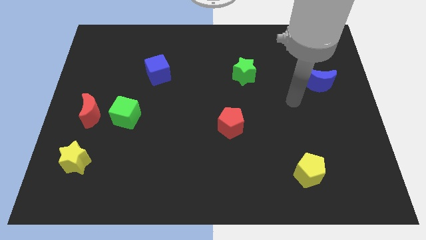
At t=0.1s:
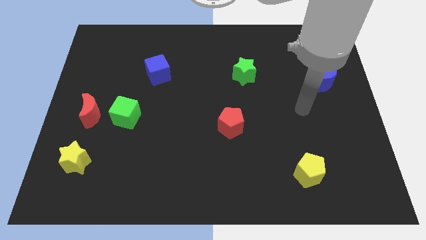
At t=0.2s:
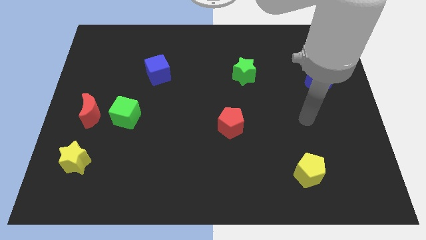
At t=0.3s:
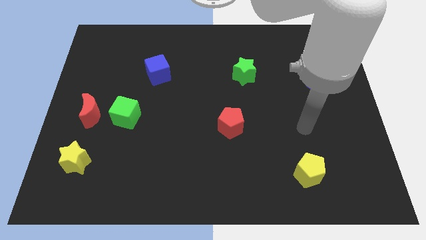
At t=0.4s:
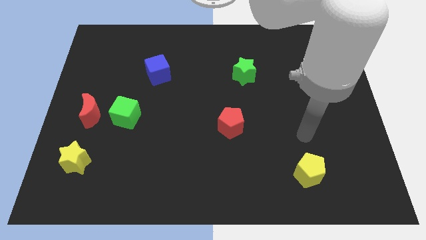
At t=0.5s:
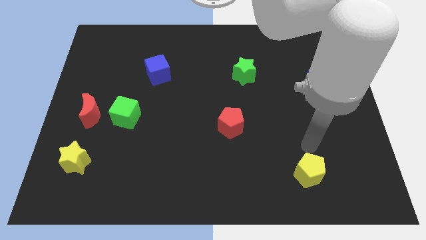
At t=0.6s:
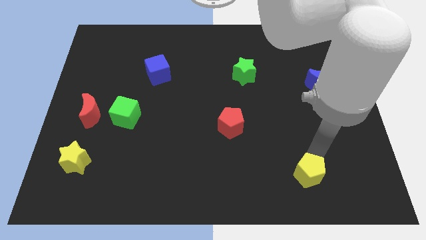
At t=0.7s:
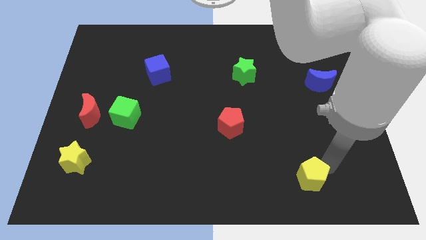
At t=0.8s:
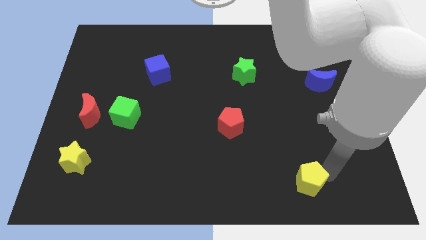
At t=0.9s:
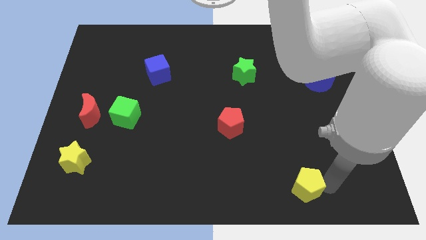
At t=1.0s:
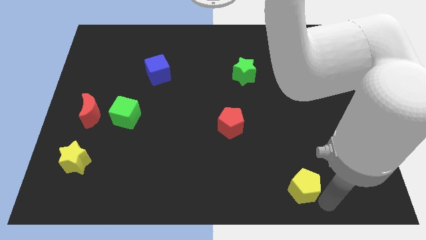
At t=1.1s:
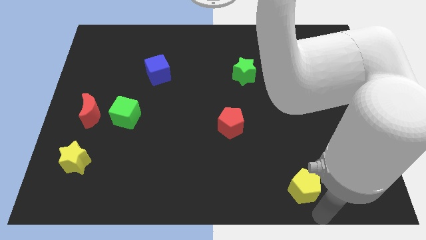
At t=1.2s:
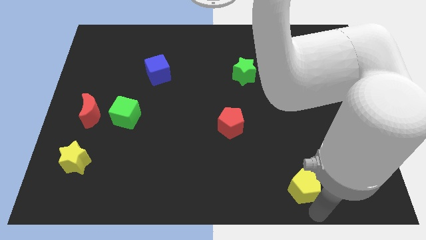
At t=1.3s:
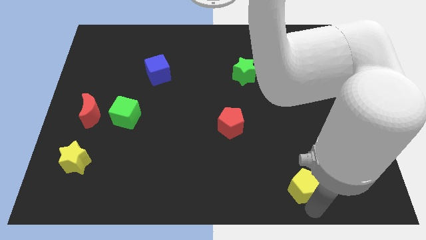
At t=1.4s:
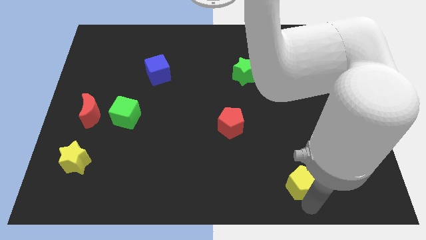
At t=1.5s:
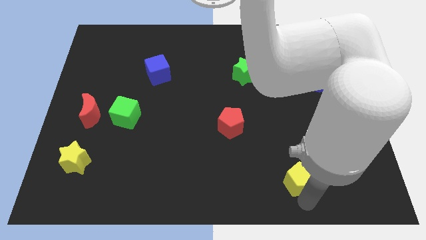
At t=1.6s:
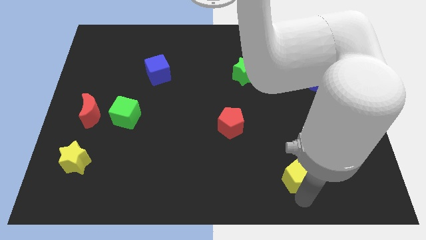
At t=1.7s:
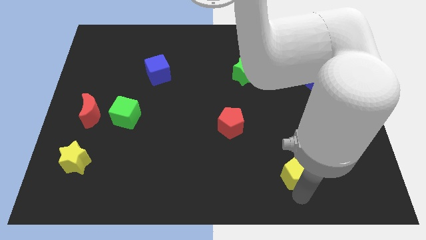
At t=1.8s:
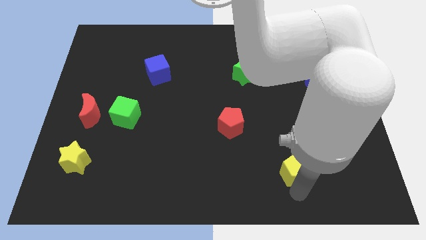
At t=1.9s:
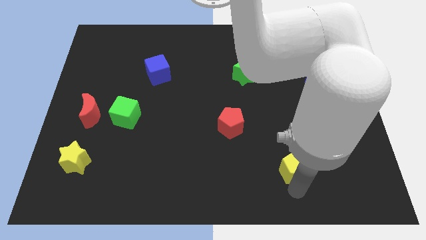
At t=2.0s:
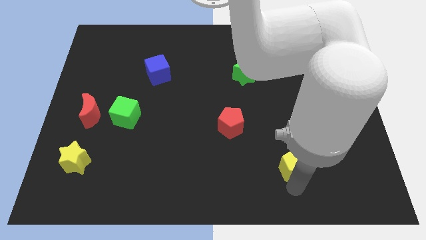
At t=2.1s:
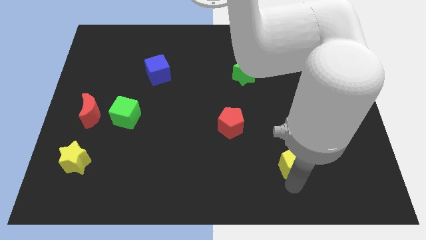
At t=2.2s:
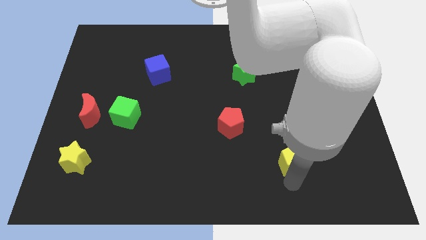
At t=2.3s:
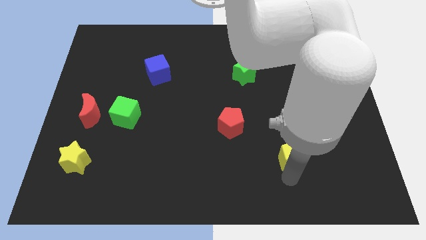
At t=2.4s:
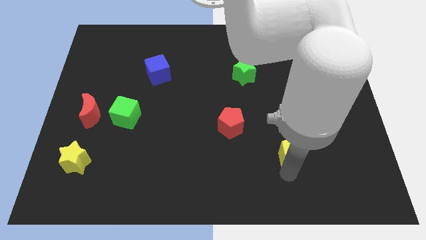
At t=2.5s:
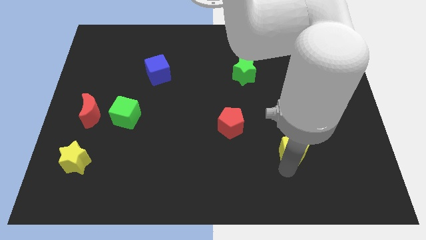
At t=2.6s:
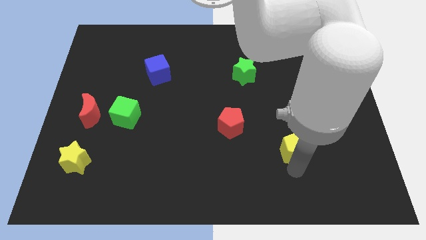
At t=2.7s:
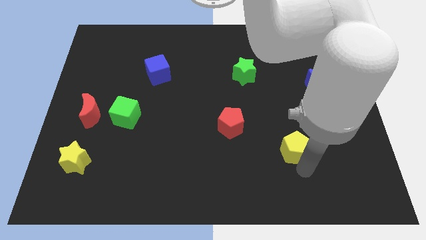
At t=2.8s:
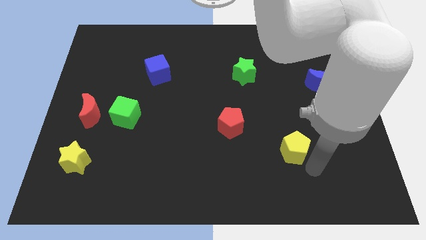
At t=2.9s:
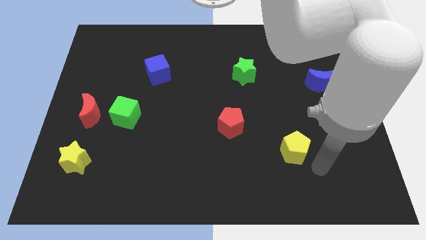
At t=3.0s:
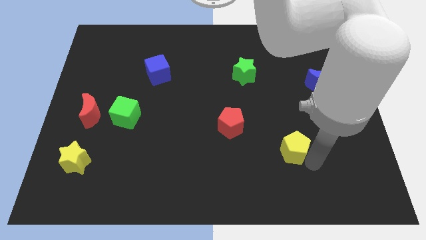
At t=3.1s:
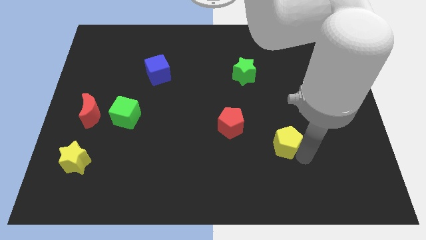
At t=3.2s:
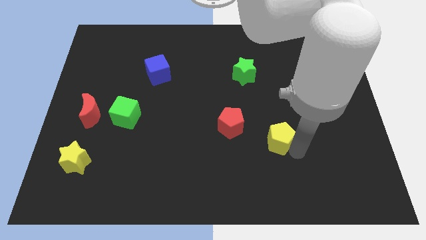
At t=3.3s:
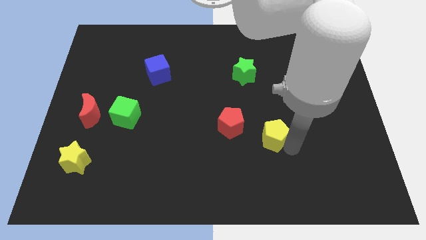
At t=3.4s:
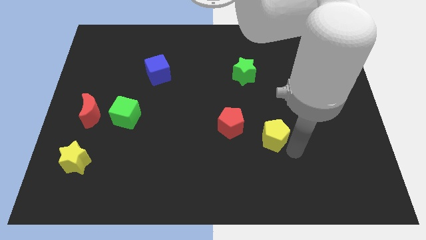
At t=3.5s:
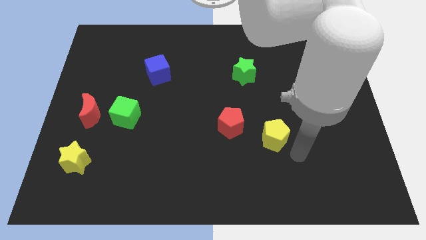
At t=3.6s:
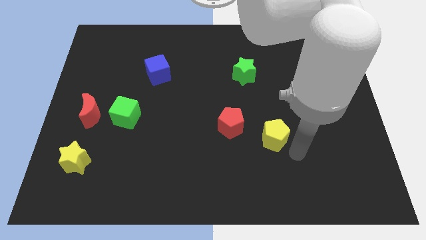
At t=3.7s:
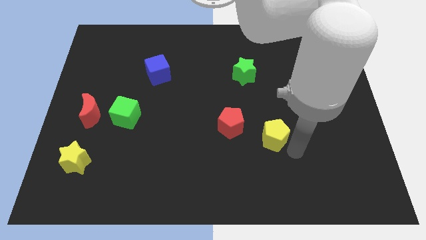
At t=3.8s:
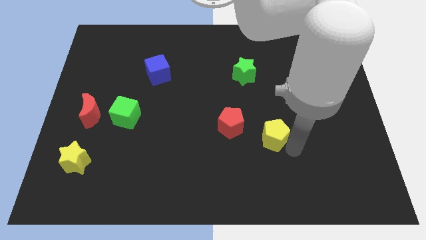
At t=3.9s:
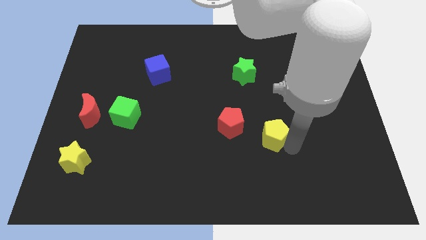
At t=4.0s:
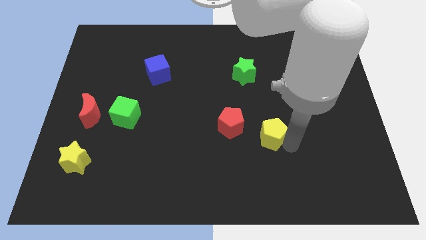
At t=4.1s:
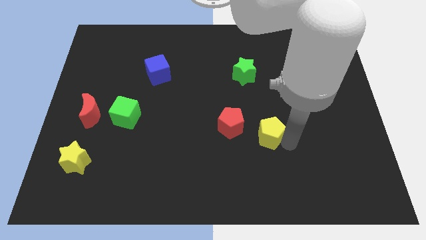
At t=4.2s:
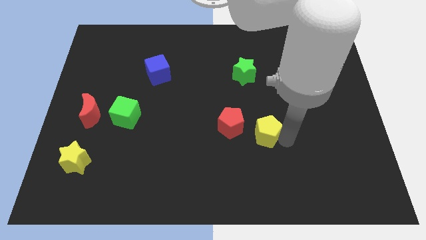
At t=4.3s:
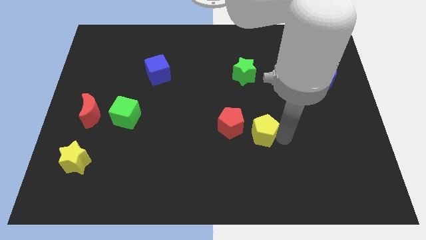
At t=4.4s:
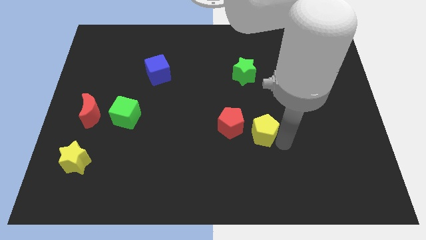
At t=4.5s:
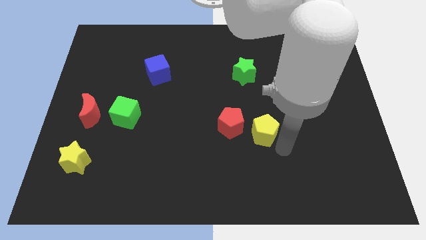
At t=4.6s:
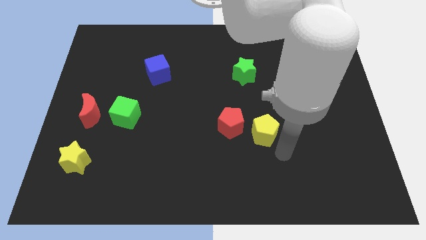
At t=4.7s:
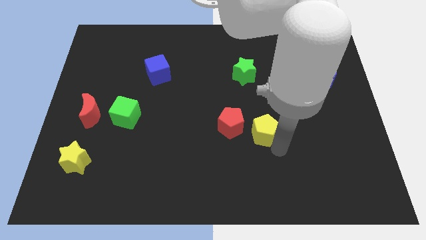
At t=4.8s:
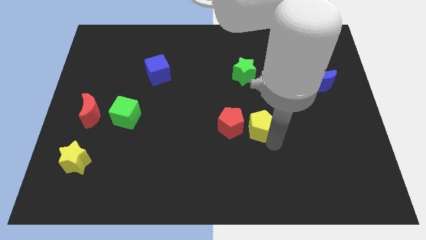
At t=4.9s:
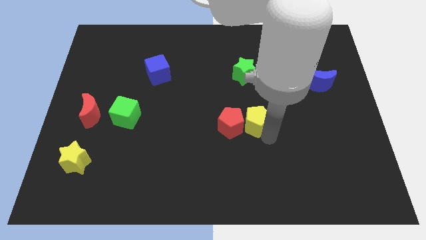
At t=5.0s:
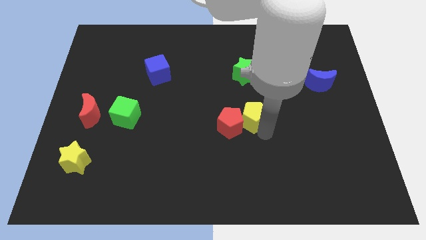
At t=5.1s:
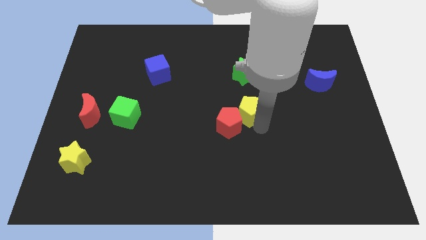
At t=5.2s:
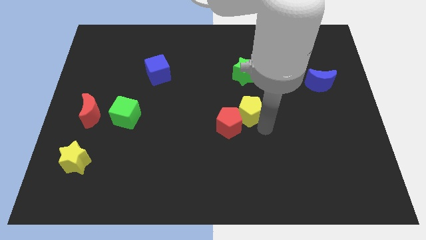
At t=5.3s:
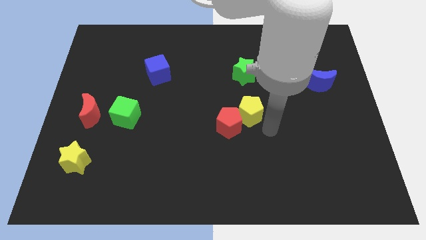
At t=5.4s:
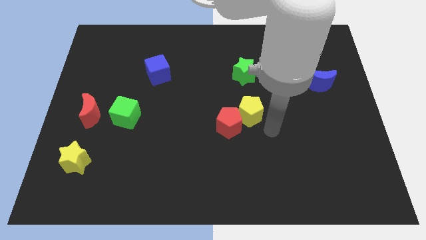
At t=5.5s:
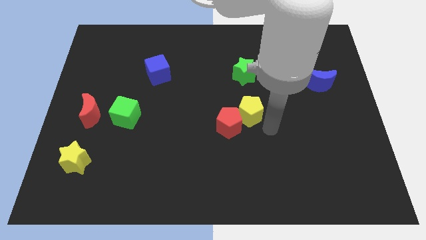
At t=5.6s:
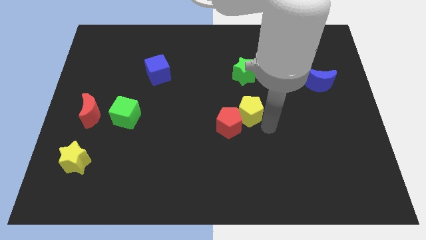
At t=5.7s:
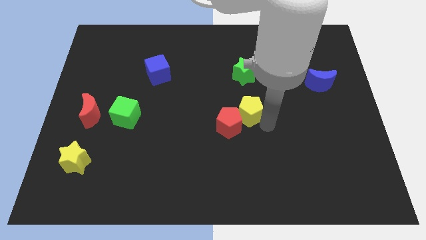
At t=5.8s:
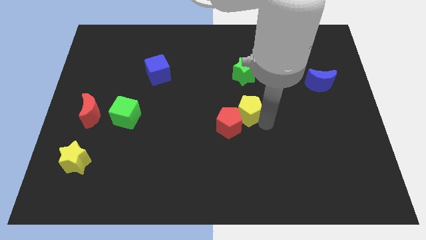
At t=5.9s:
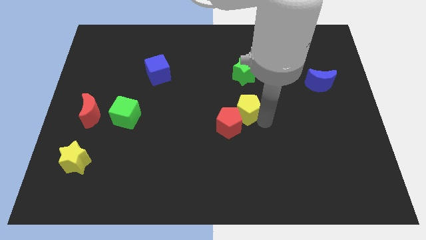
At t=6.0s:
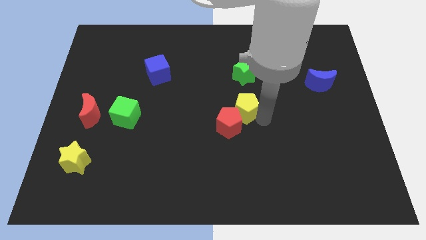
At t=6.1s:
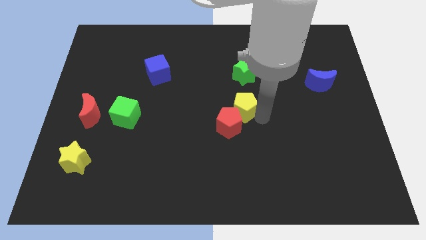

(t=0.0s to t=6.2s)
move the yellow pentagon up and then to the left

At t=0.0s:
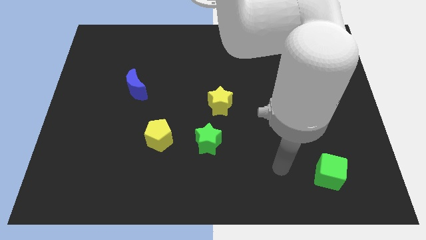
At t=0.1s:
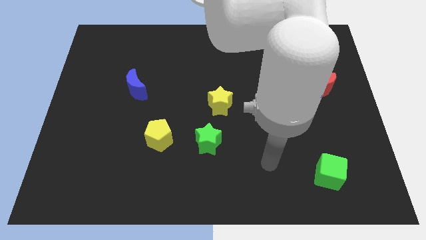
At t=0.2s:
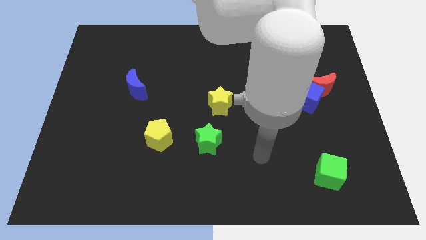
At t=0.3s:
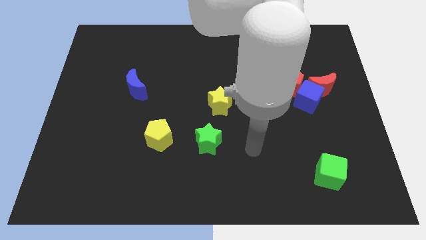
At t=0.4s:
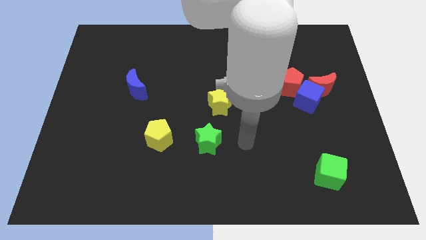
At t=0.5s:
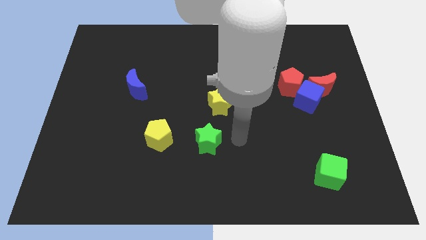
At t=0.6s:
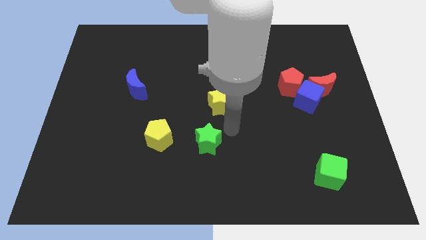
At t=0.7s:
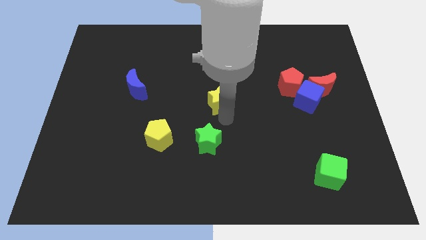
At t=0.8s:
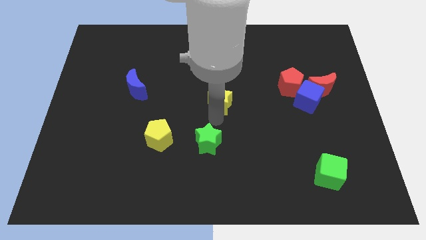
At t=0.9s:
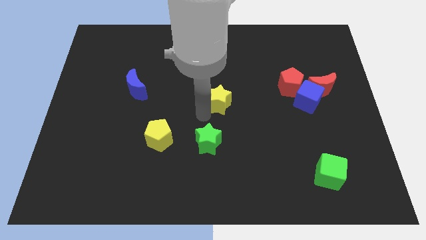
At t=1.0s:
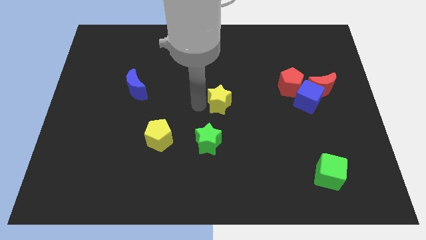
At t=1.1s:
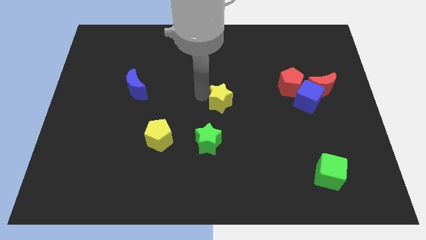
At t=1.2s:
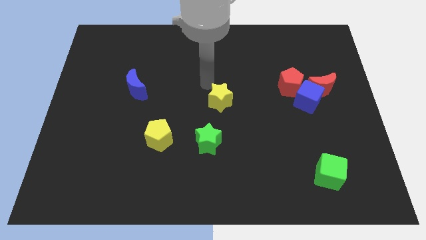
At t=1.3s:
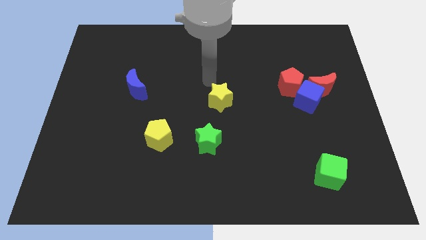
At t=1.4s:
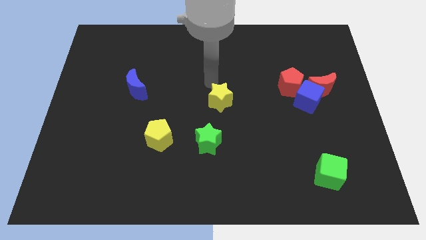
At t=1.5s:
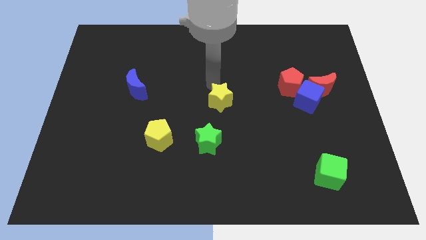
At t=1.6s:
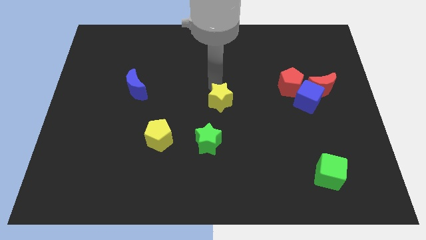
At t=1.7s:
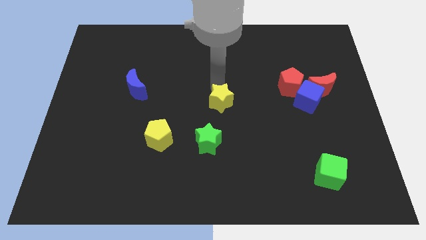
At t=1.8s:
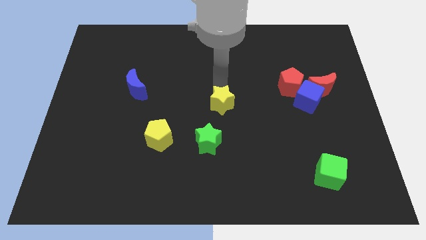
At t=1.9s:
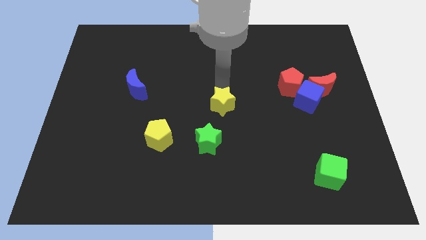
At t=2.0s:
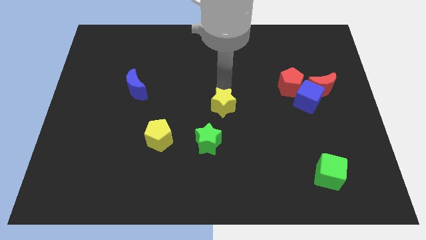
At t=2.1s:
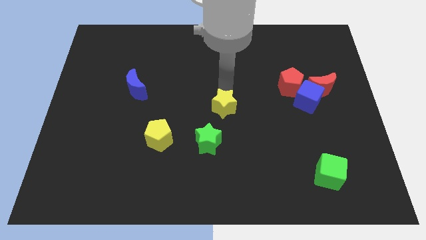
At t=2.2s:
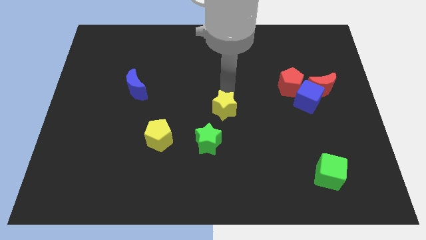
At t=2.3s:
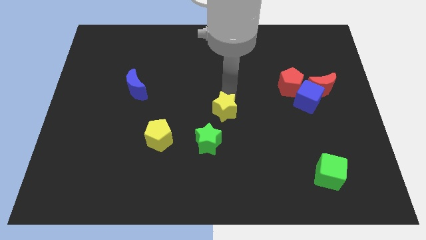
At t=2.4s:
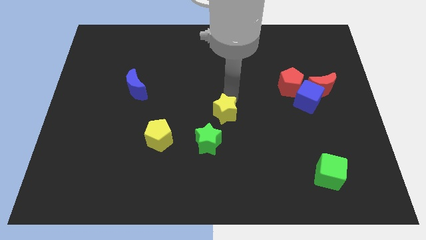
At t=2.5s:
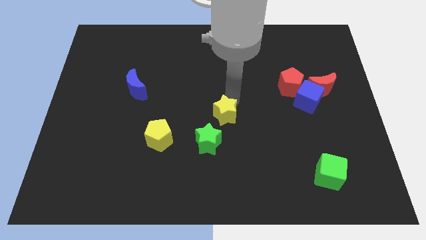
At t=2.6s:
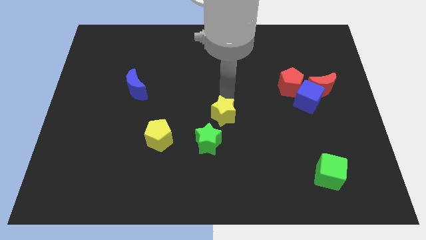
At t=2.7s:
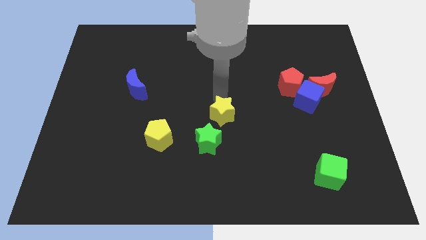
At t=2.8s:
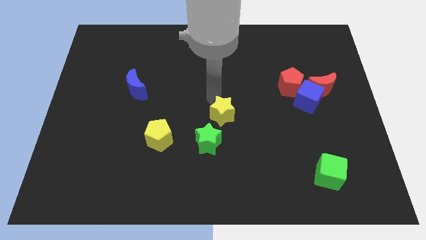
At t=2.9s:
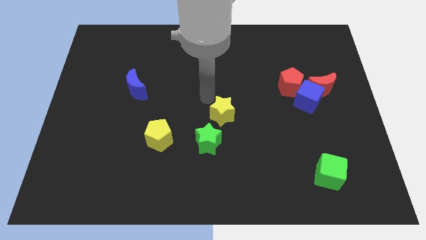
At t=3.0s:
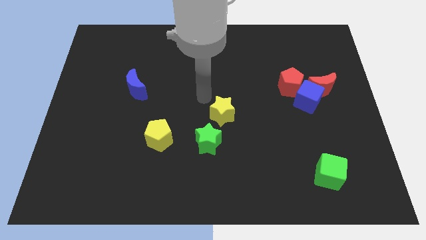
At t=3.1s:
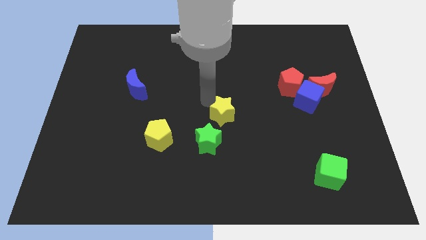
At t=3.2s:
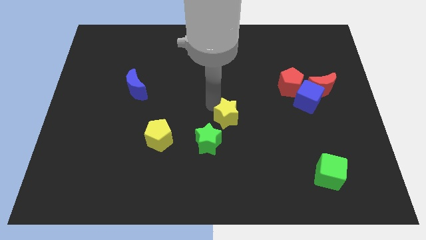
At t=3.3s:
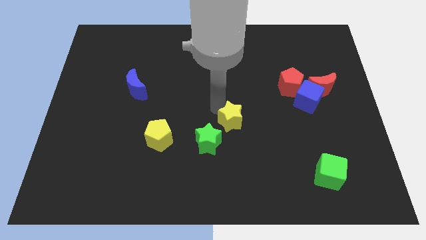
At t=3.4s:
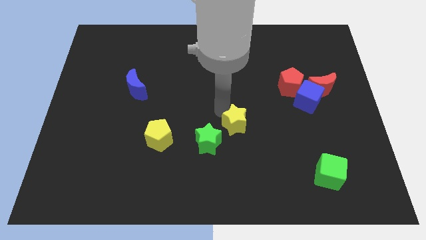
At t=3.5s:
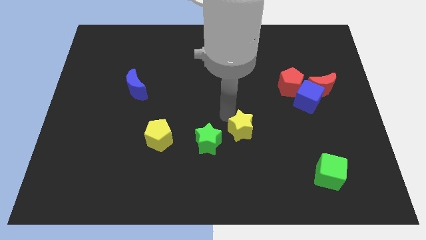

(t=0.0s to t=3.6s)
push the yellow star a little bit downwards and to the right diagonally
